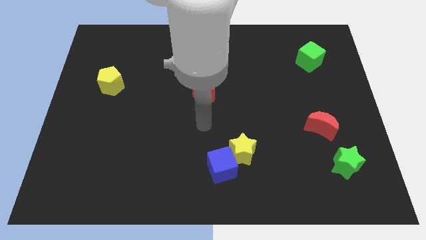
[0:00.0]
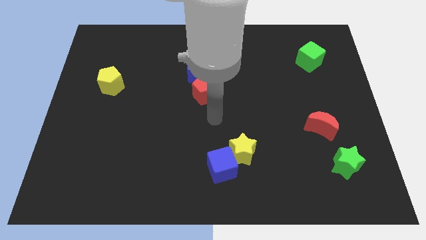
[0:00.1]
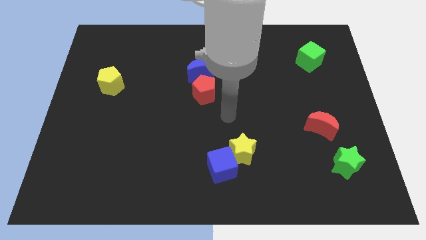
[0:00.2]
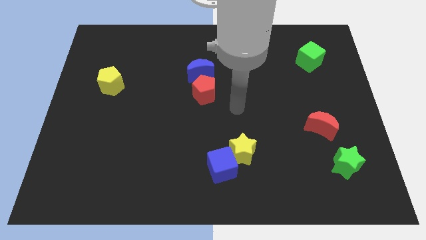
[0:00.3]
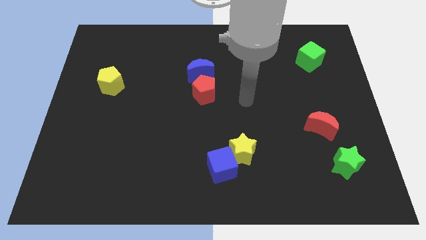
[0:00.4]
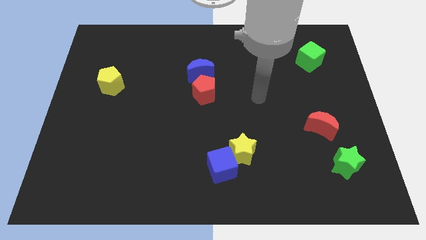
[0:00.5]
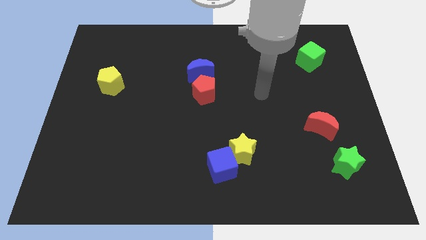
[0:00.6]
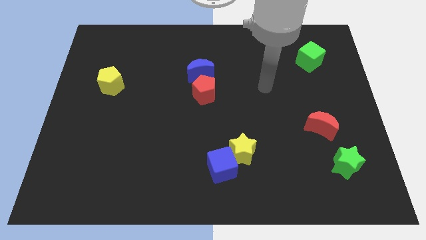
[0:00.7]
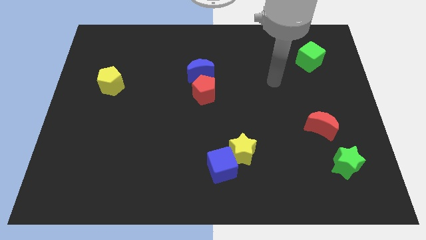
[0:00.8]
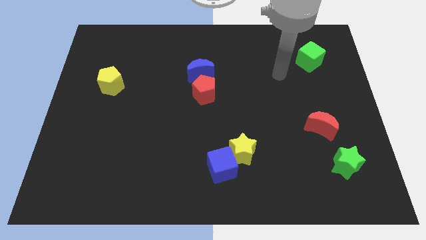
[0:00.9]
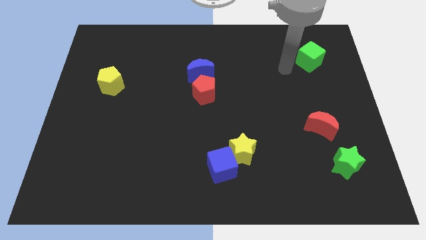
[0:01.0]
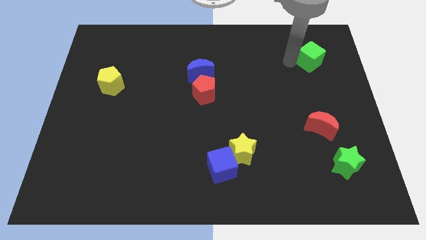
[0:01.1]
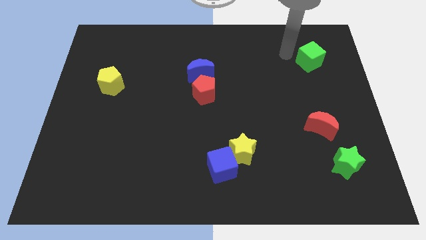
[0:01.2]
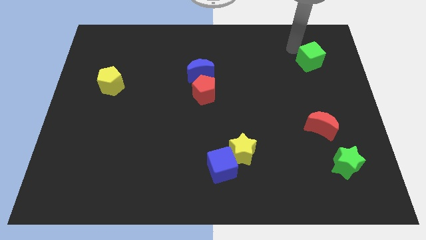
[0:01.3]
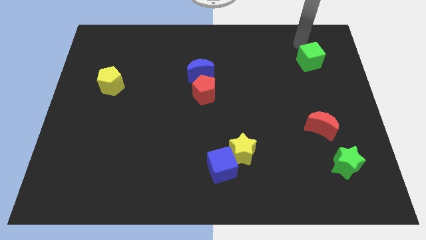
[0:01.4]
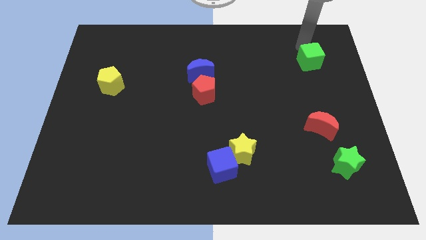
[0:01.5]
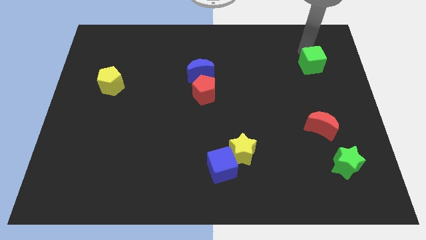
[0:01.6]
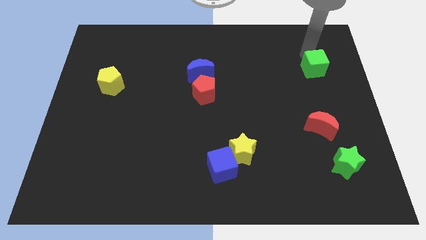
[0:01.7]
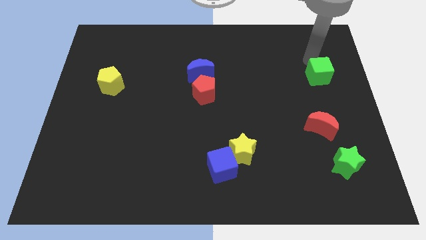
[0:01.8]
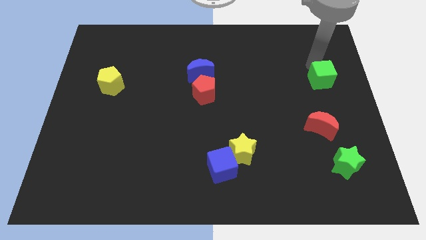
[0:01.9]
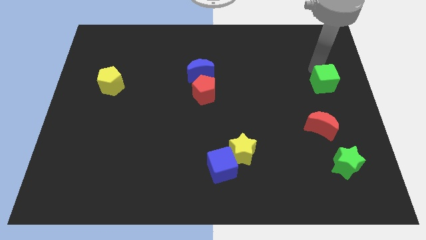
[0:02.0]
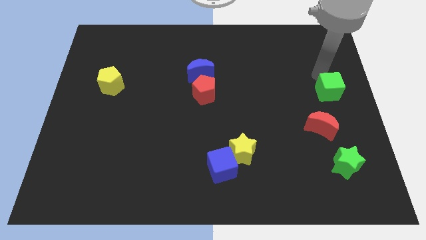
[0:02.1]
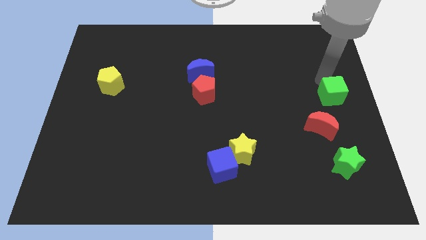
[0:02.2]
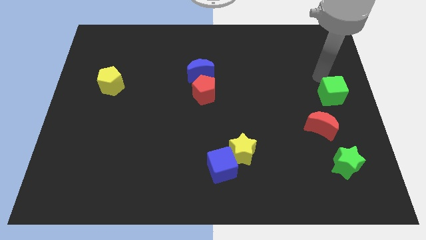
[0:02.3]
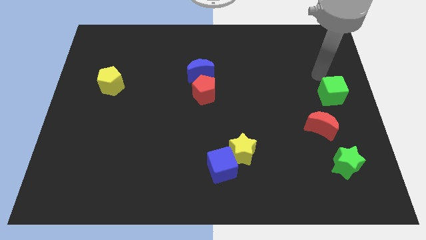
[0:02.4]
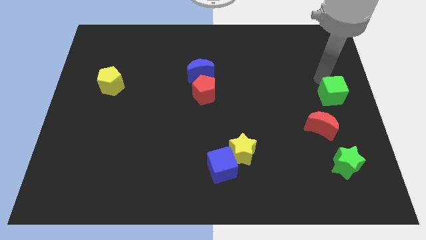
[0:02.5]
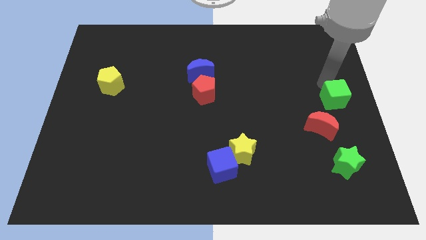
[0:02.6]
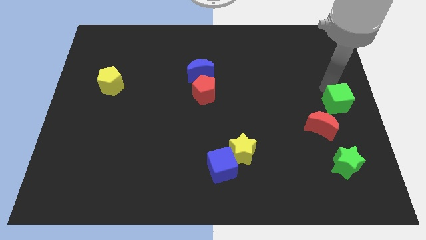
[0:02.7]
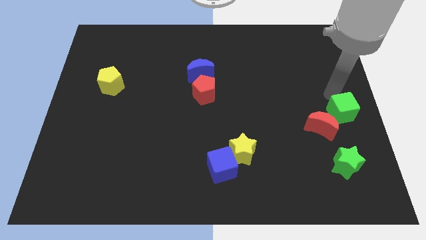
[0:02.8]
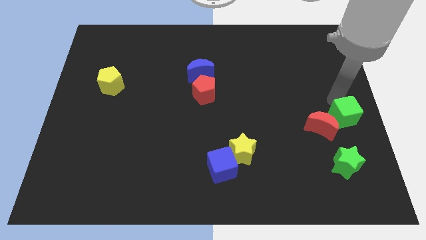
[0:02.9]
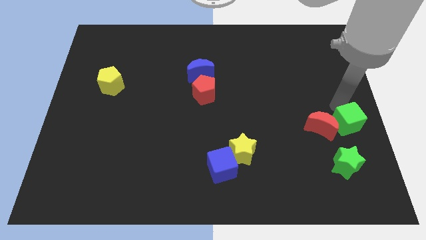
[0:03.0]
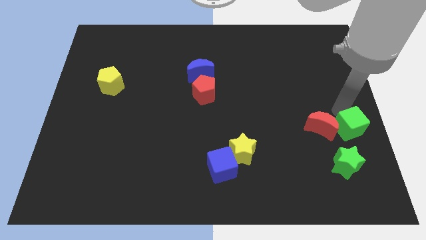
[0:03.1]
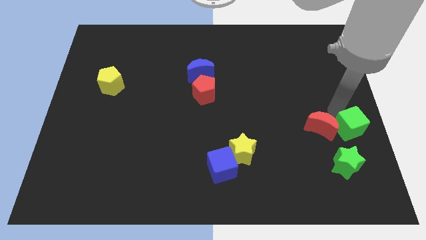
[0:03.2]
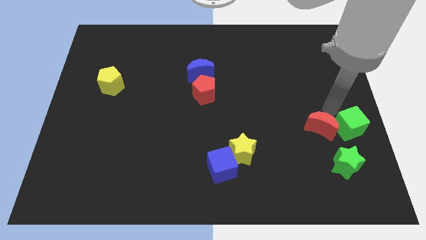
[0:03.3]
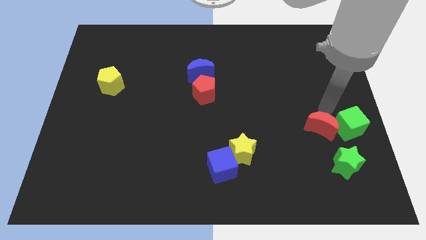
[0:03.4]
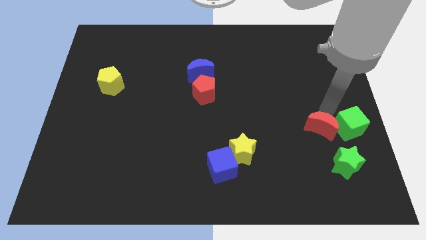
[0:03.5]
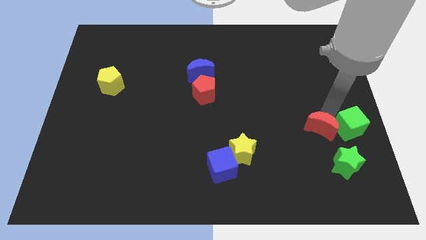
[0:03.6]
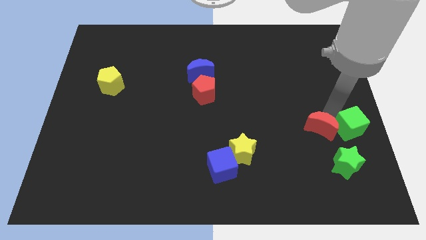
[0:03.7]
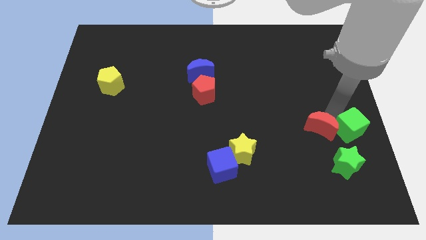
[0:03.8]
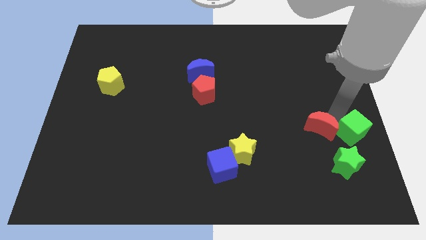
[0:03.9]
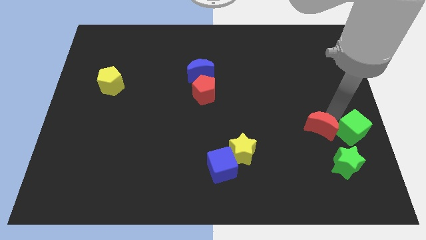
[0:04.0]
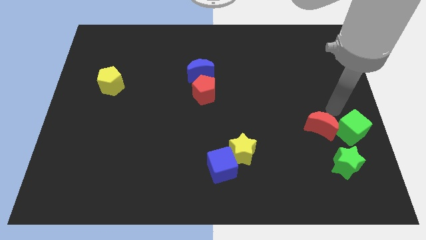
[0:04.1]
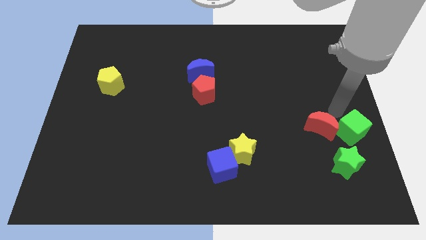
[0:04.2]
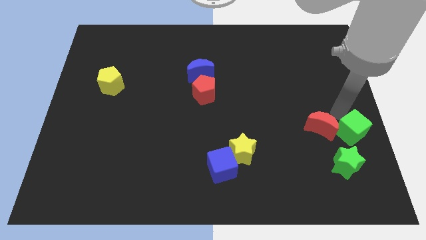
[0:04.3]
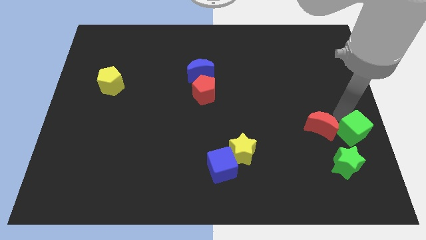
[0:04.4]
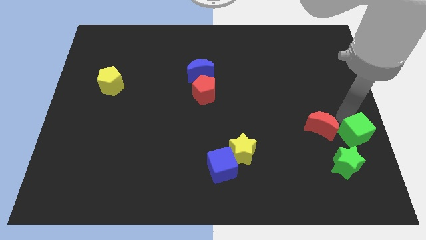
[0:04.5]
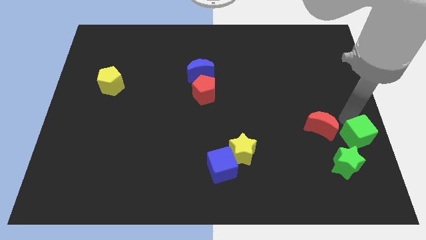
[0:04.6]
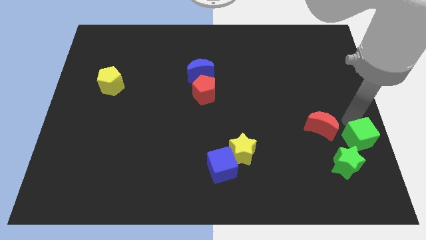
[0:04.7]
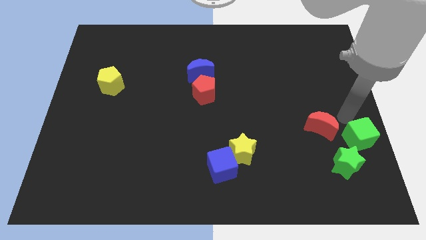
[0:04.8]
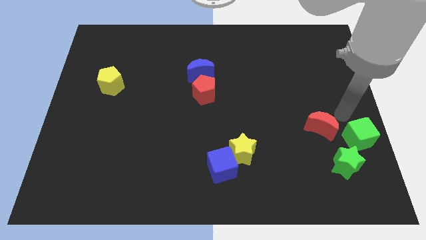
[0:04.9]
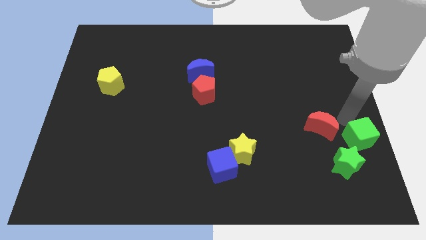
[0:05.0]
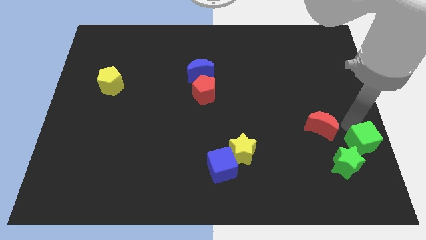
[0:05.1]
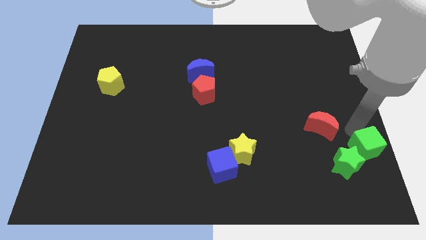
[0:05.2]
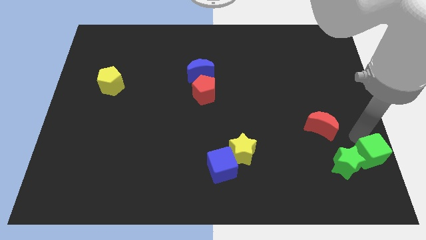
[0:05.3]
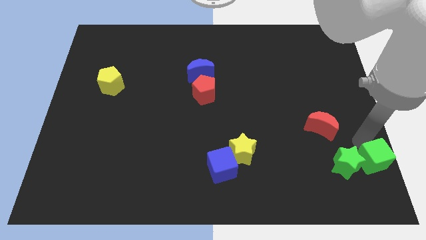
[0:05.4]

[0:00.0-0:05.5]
put the green cube to the bottom right of the board

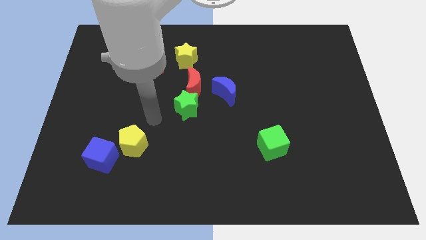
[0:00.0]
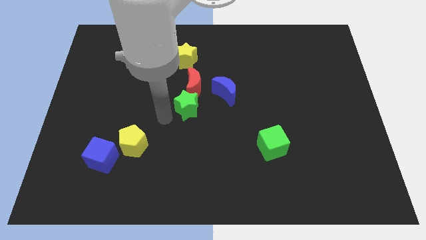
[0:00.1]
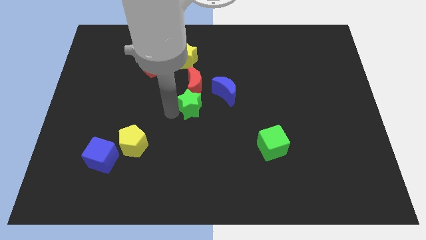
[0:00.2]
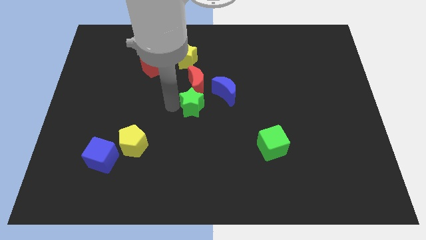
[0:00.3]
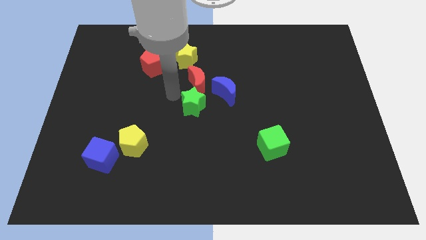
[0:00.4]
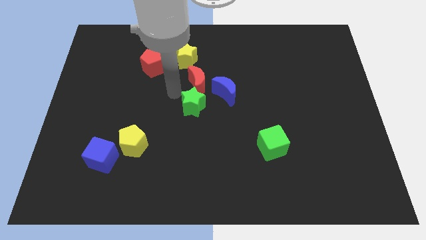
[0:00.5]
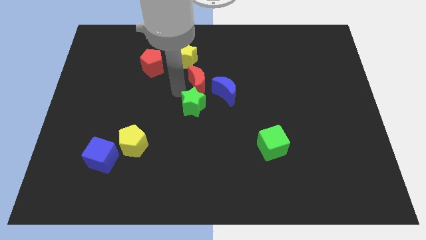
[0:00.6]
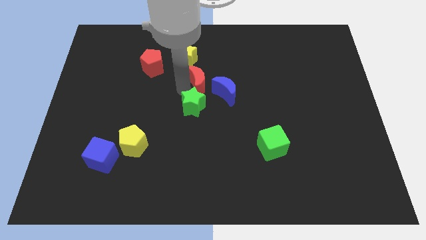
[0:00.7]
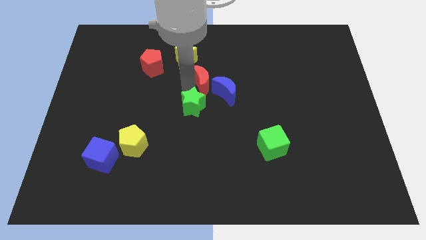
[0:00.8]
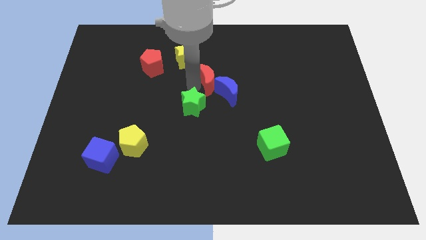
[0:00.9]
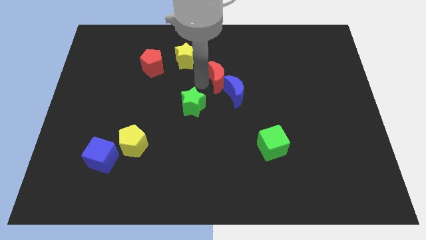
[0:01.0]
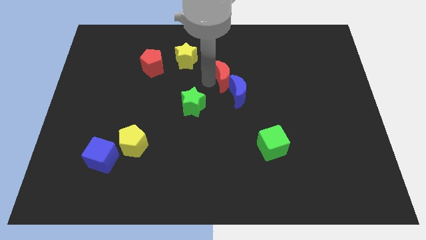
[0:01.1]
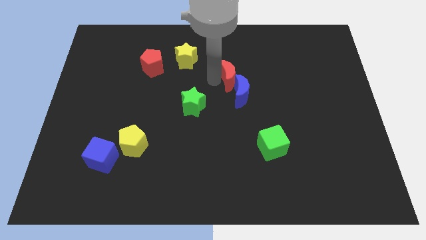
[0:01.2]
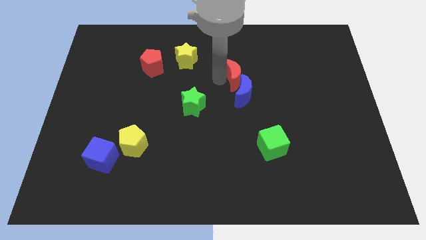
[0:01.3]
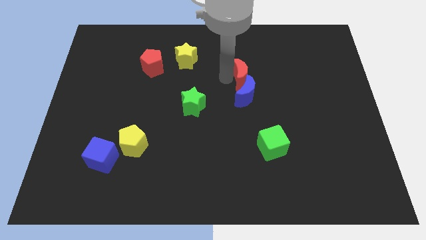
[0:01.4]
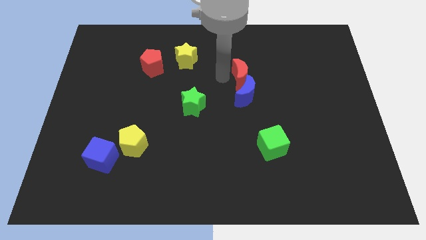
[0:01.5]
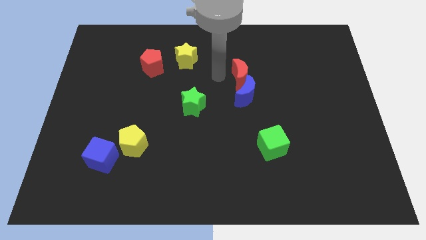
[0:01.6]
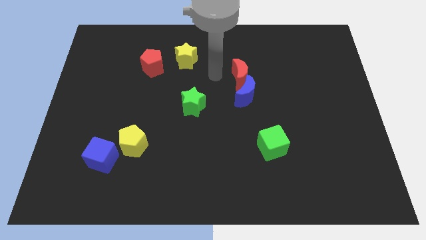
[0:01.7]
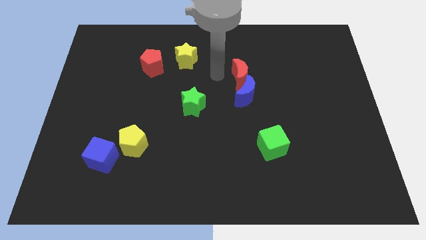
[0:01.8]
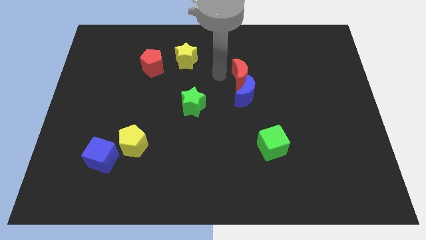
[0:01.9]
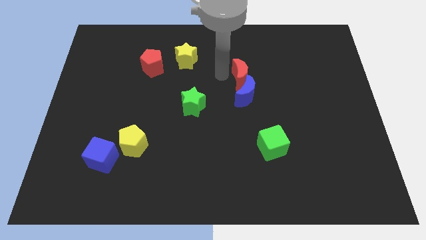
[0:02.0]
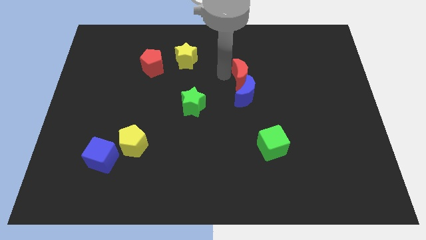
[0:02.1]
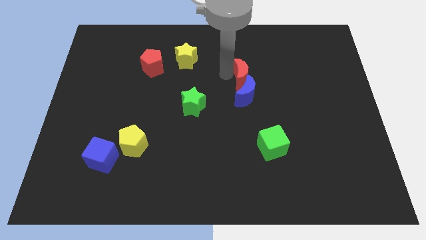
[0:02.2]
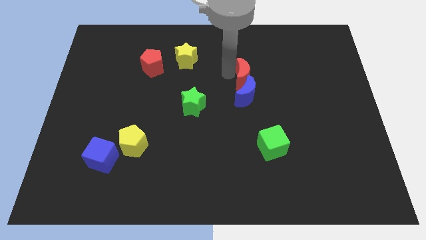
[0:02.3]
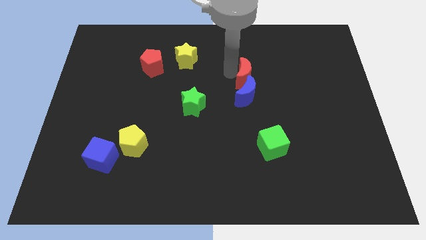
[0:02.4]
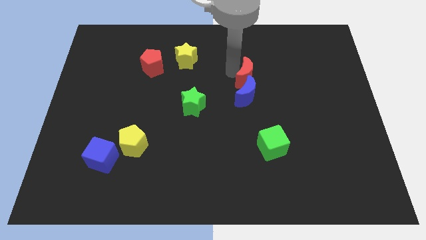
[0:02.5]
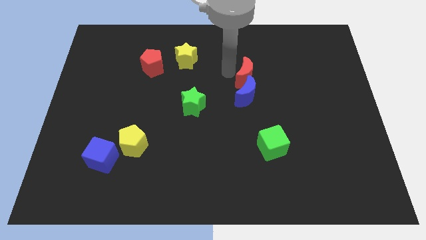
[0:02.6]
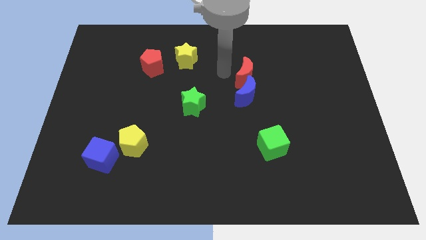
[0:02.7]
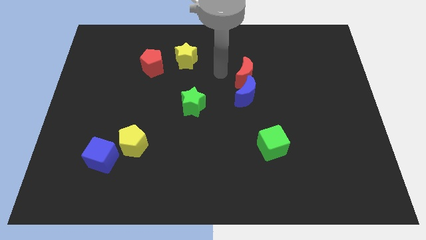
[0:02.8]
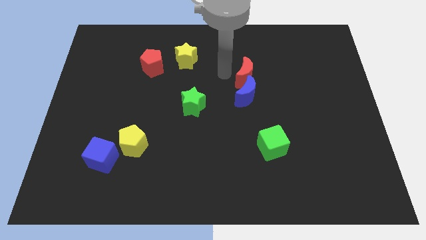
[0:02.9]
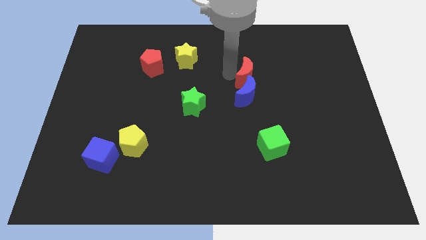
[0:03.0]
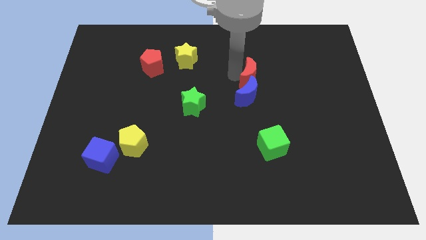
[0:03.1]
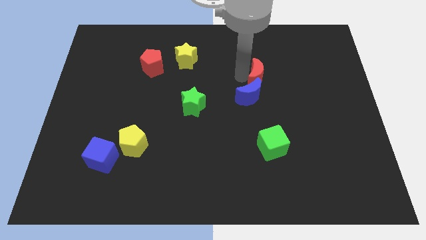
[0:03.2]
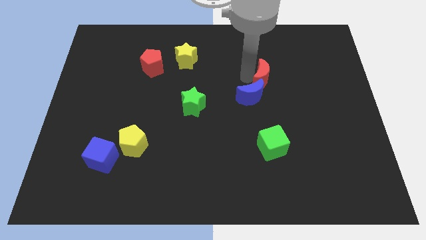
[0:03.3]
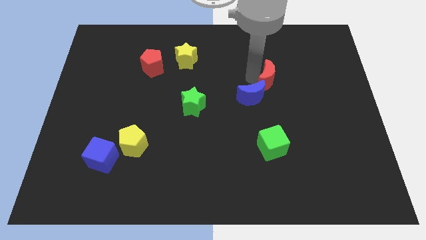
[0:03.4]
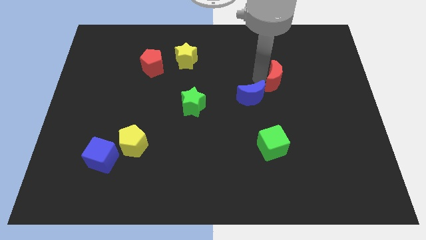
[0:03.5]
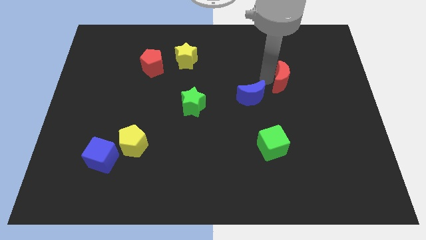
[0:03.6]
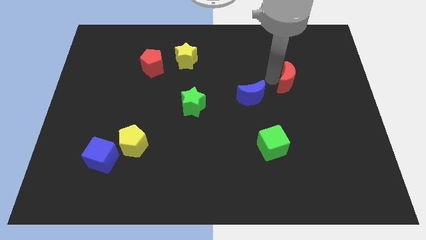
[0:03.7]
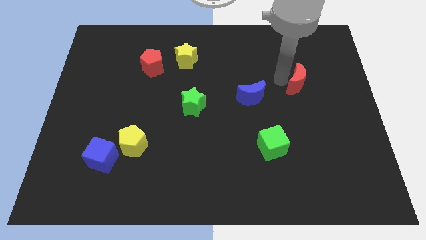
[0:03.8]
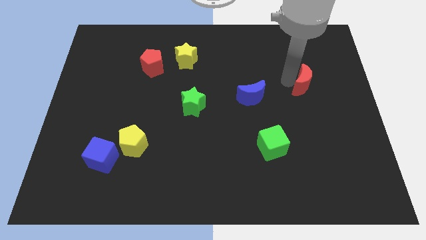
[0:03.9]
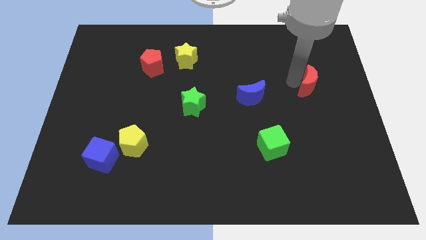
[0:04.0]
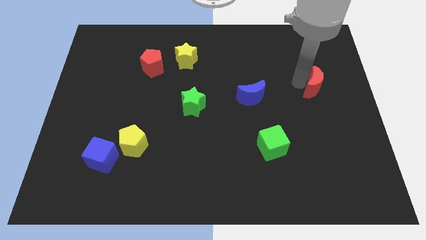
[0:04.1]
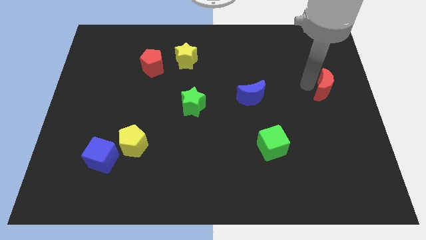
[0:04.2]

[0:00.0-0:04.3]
move the red moon to the center right
